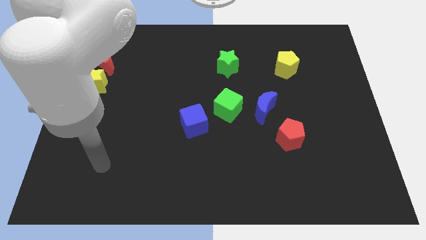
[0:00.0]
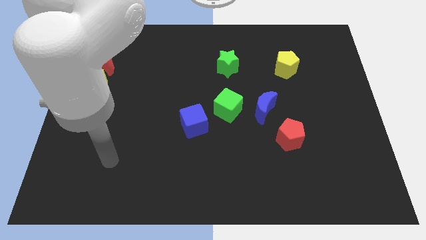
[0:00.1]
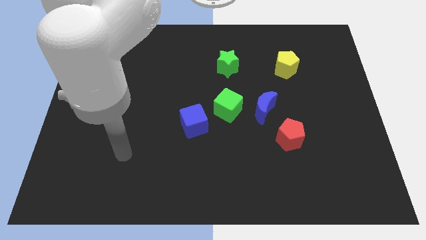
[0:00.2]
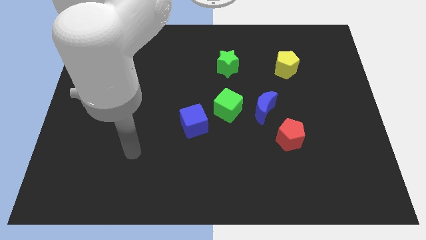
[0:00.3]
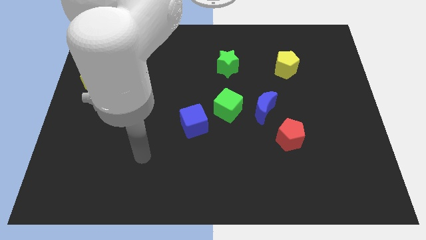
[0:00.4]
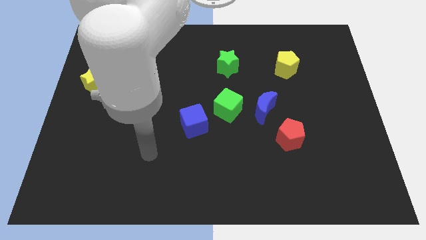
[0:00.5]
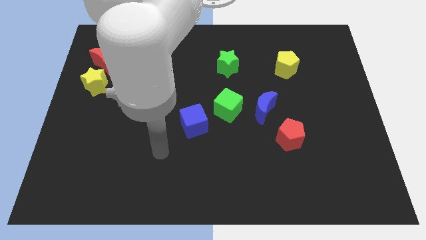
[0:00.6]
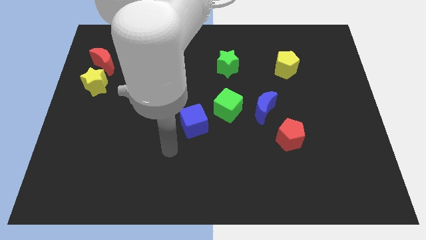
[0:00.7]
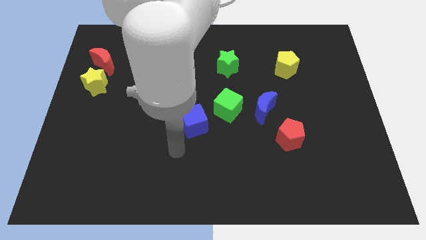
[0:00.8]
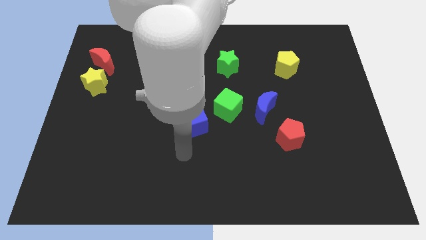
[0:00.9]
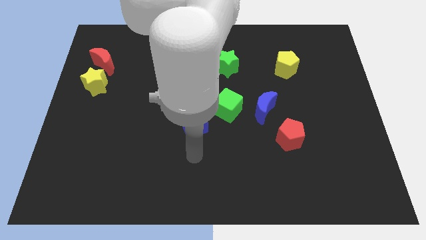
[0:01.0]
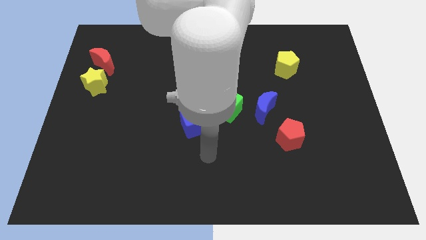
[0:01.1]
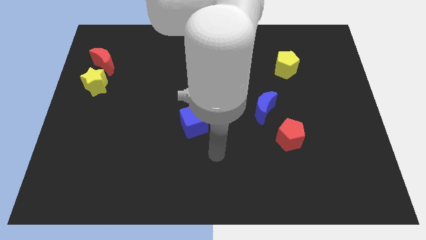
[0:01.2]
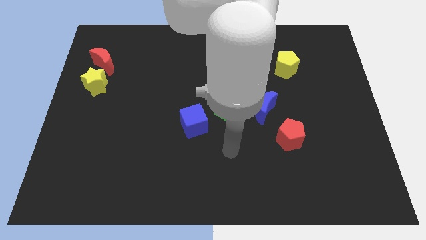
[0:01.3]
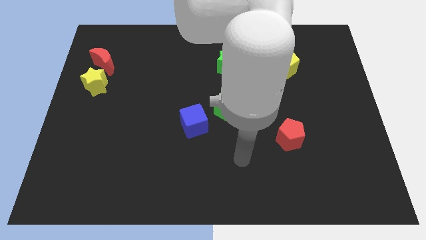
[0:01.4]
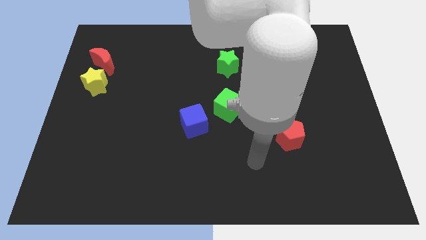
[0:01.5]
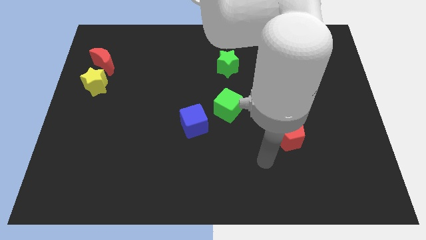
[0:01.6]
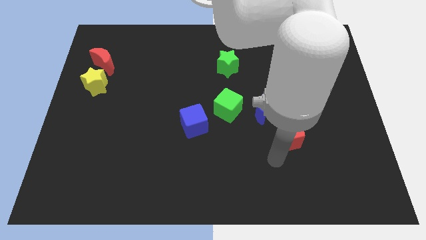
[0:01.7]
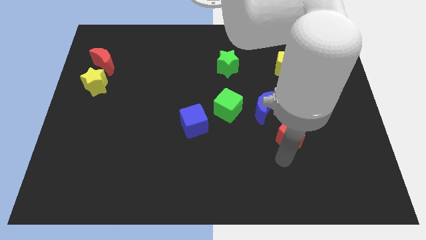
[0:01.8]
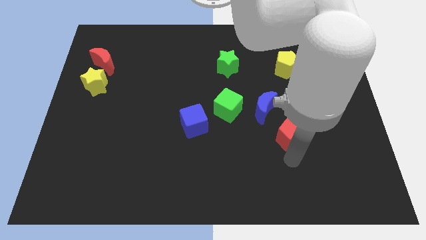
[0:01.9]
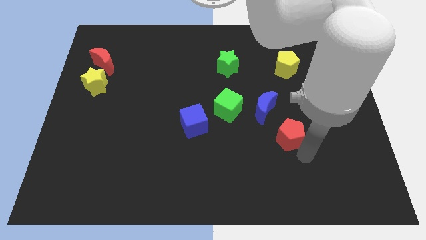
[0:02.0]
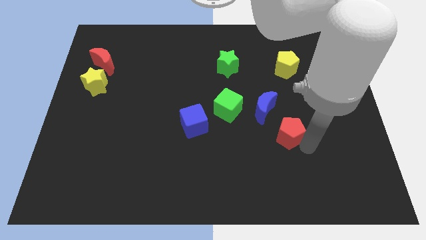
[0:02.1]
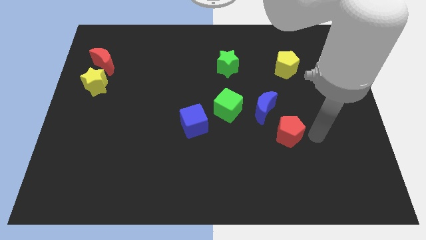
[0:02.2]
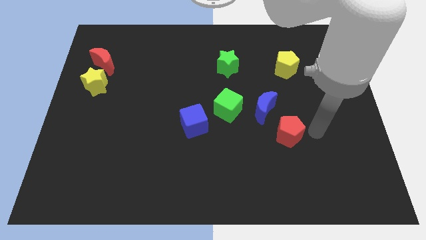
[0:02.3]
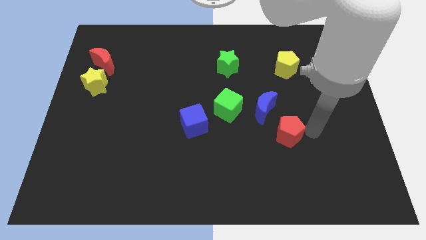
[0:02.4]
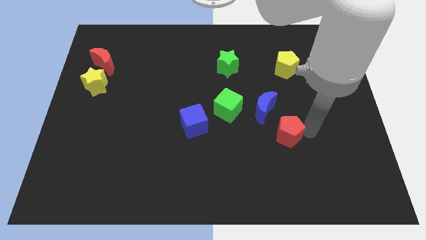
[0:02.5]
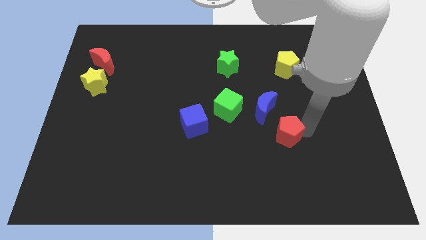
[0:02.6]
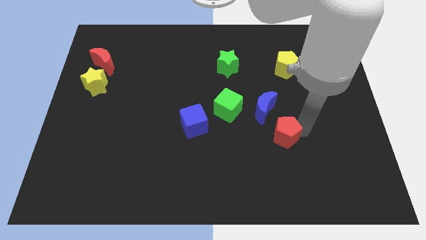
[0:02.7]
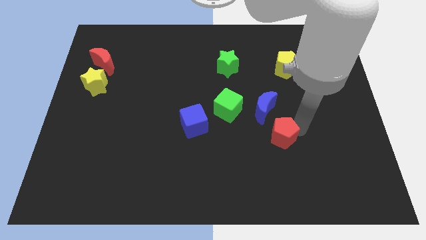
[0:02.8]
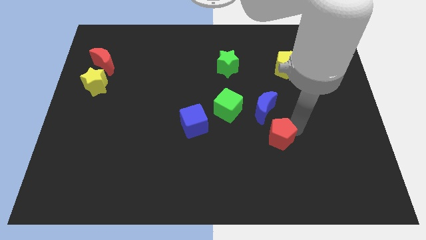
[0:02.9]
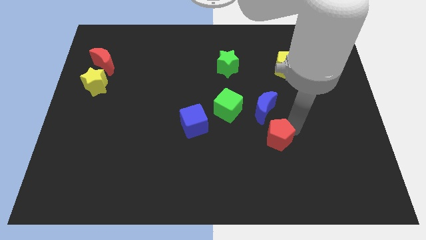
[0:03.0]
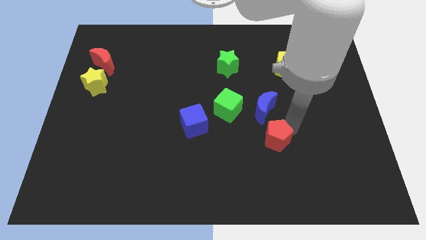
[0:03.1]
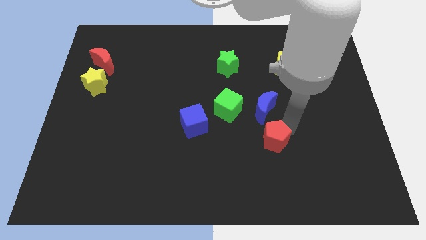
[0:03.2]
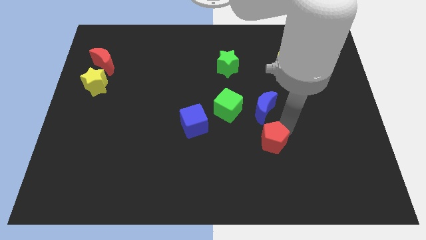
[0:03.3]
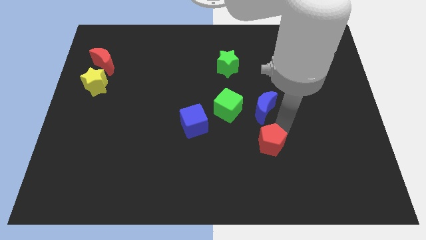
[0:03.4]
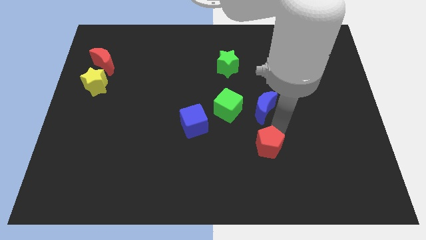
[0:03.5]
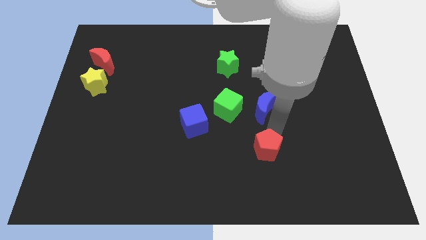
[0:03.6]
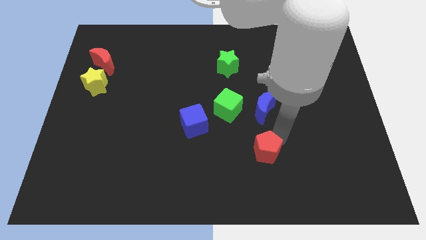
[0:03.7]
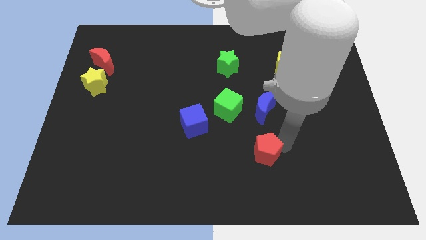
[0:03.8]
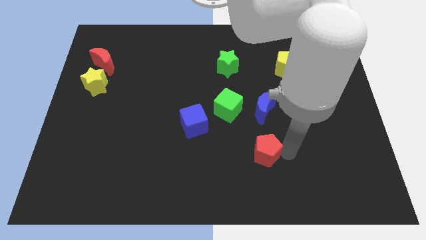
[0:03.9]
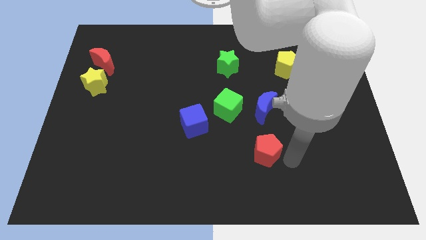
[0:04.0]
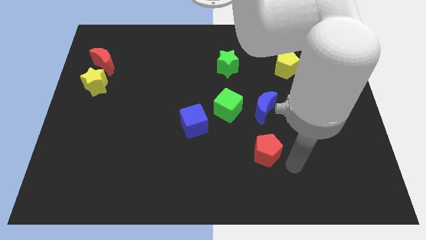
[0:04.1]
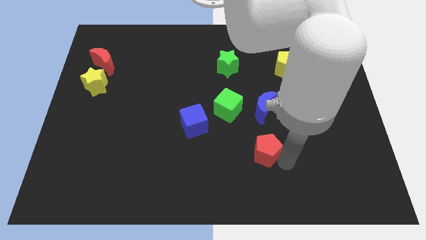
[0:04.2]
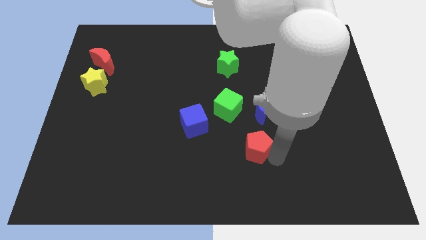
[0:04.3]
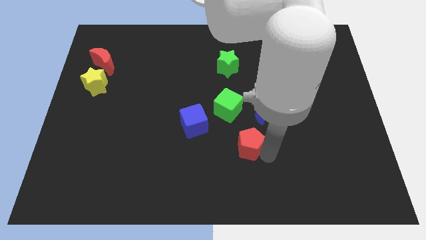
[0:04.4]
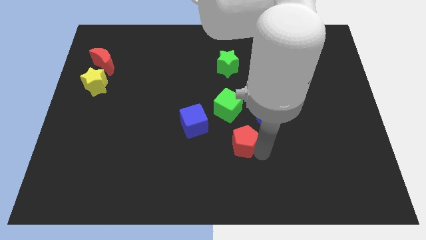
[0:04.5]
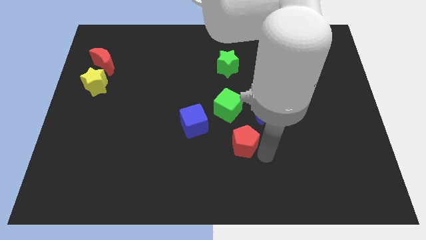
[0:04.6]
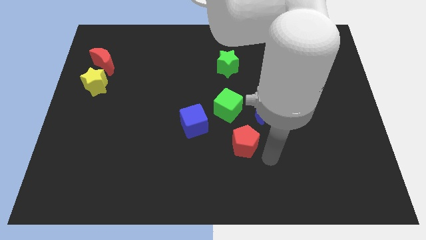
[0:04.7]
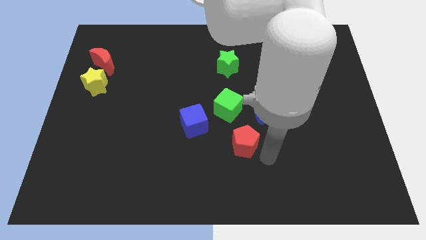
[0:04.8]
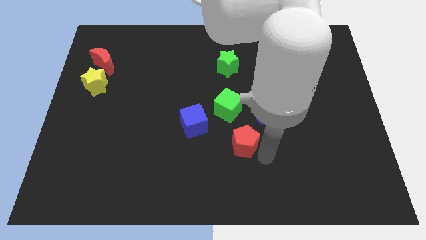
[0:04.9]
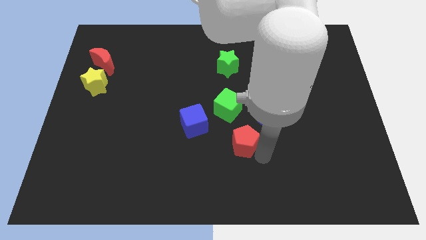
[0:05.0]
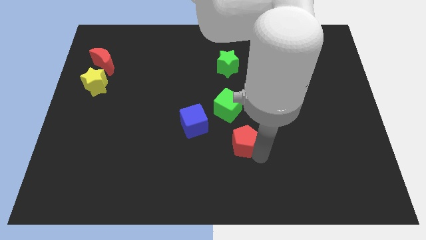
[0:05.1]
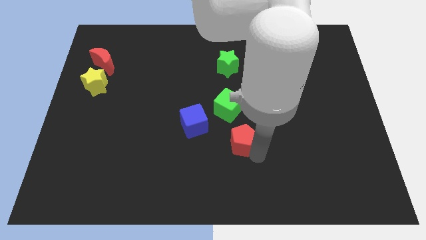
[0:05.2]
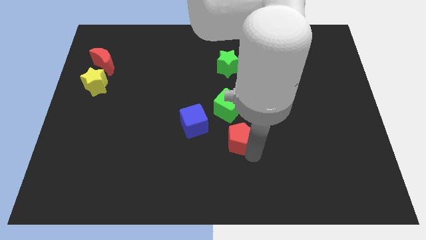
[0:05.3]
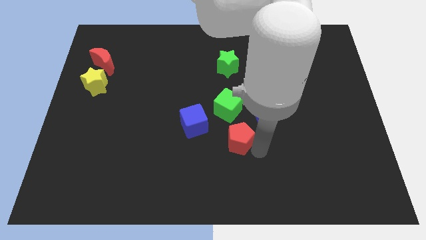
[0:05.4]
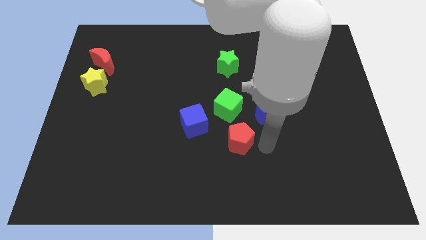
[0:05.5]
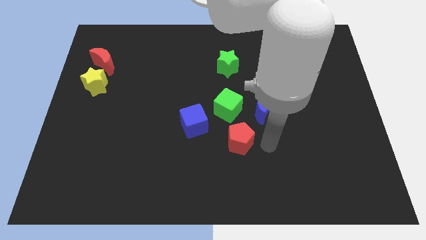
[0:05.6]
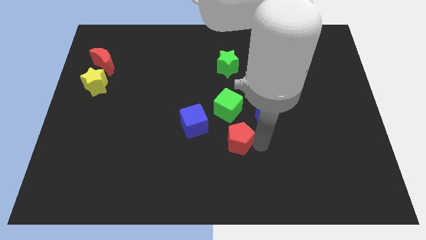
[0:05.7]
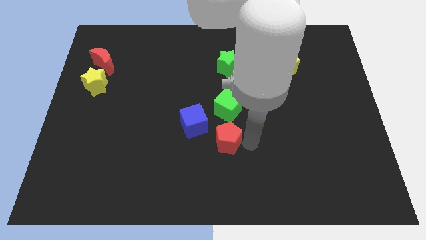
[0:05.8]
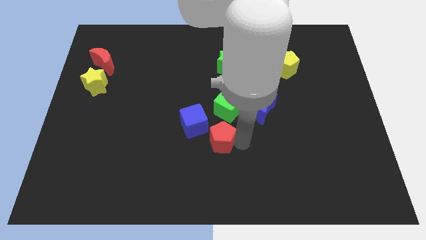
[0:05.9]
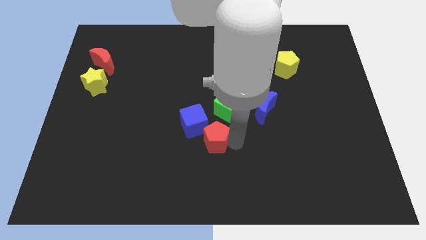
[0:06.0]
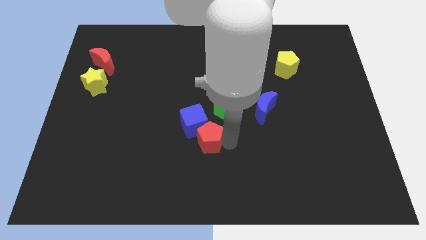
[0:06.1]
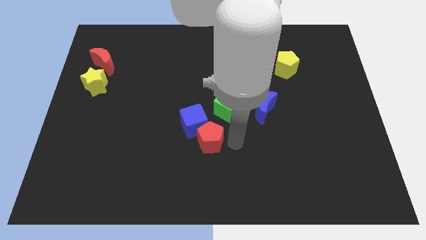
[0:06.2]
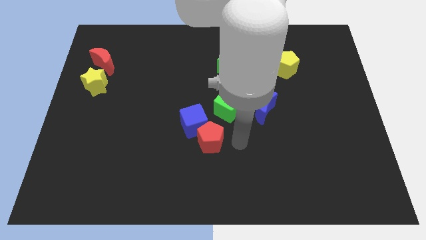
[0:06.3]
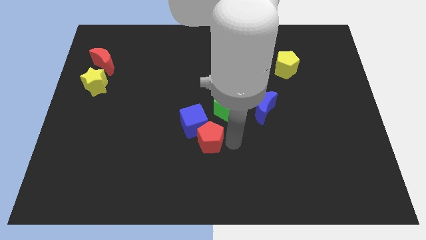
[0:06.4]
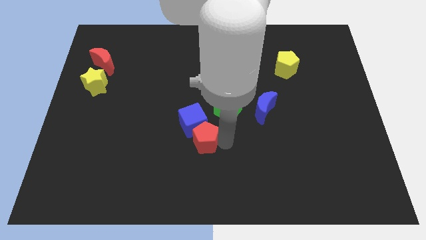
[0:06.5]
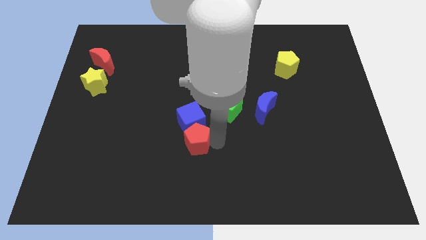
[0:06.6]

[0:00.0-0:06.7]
slide the red pentagon to the left

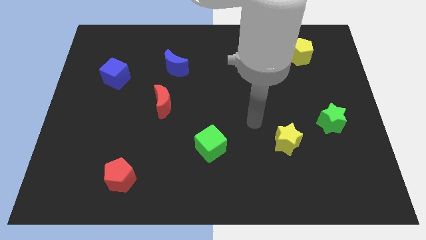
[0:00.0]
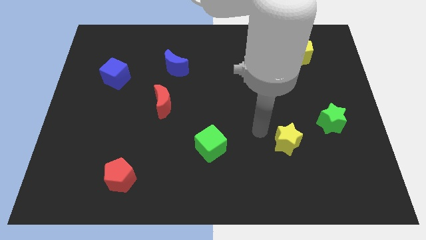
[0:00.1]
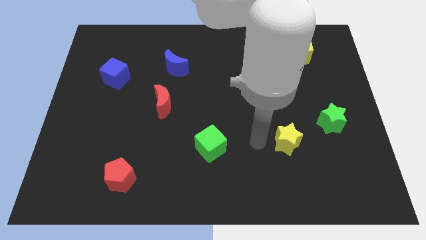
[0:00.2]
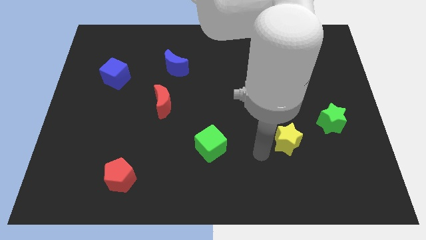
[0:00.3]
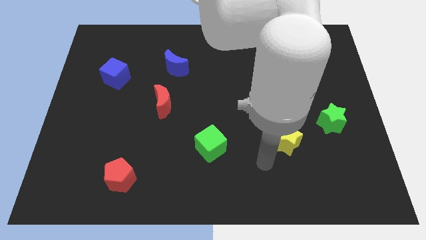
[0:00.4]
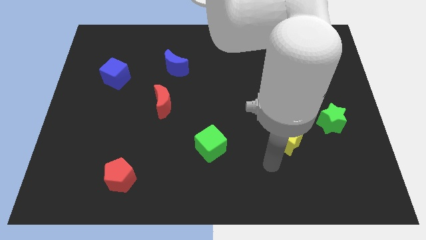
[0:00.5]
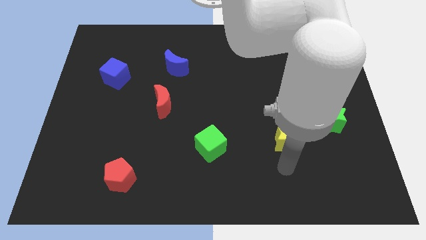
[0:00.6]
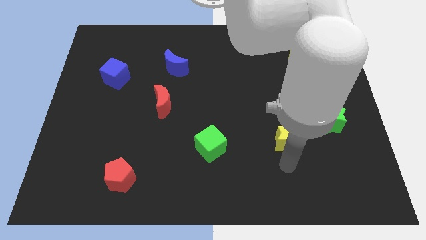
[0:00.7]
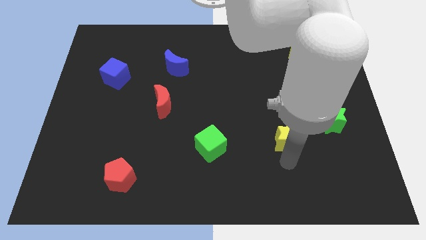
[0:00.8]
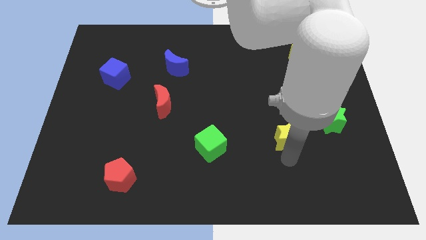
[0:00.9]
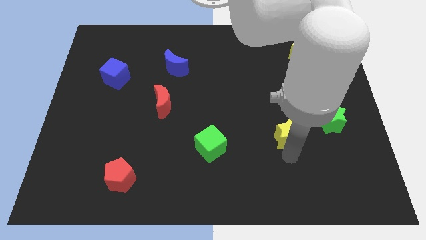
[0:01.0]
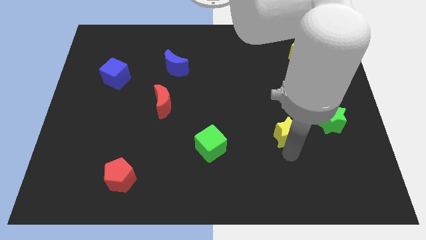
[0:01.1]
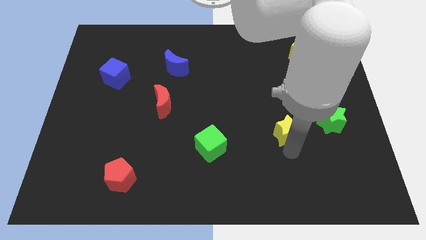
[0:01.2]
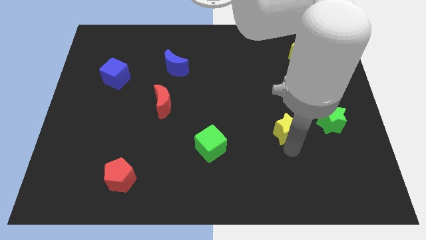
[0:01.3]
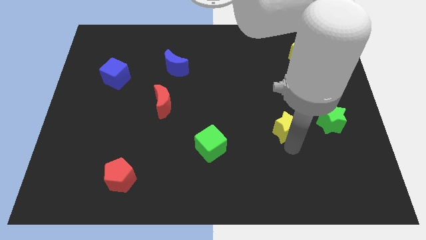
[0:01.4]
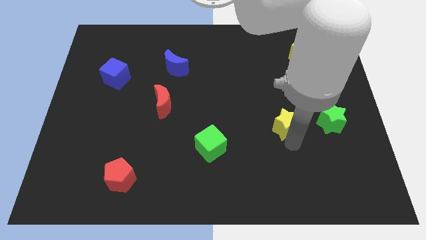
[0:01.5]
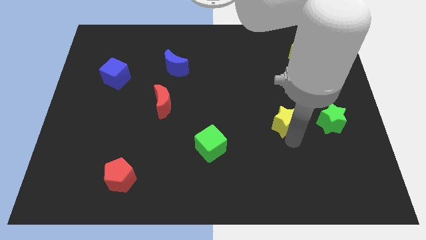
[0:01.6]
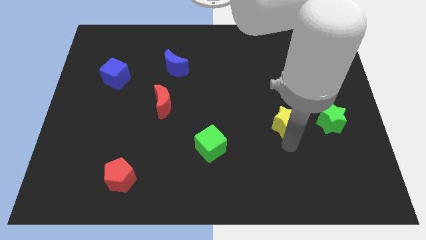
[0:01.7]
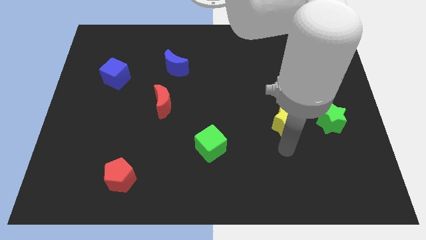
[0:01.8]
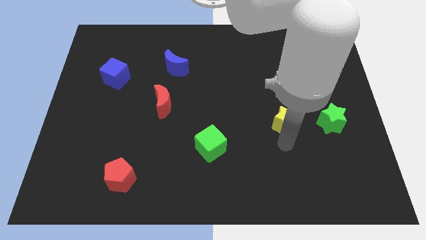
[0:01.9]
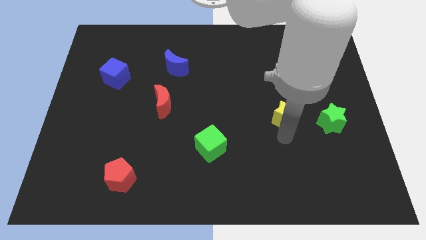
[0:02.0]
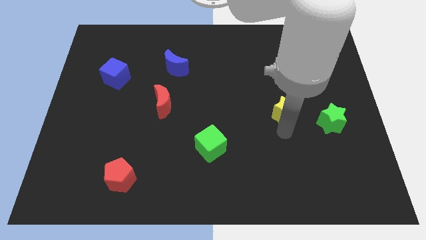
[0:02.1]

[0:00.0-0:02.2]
push the yellow star upwards a little bit
